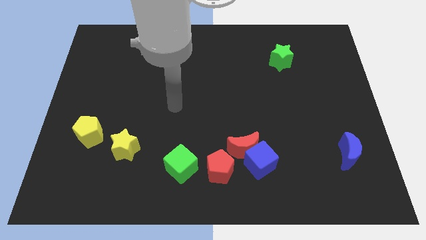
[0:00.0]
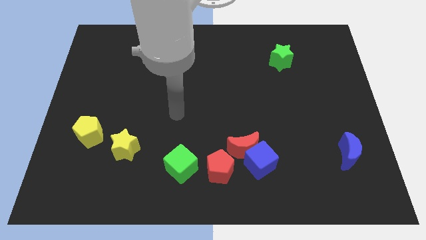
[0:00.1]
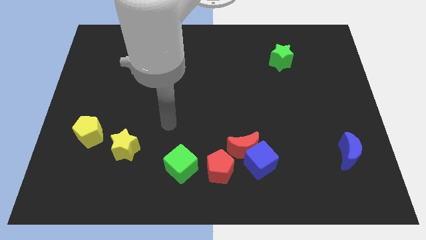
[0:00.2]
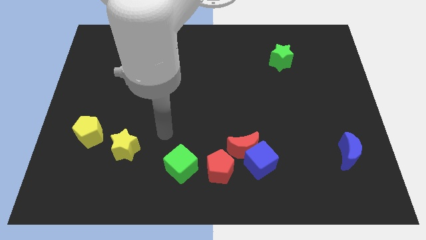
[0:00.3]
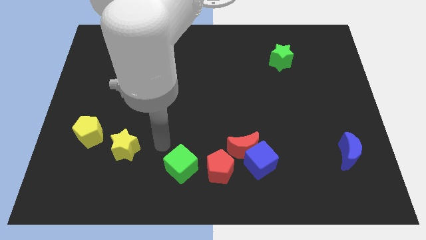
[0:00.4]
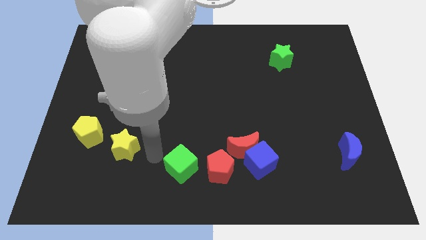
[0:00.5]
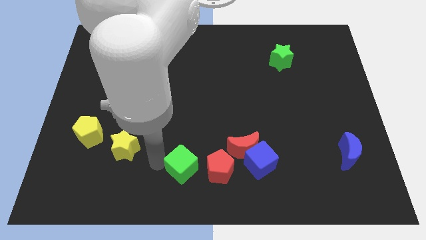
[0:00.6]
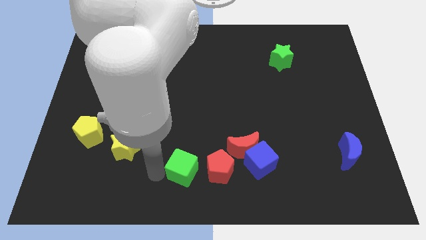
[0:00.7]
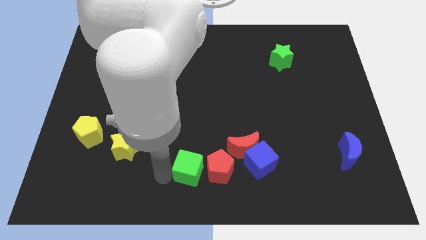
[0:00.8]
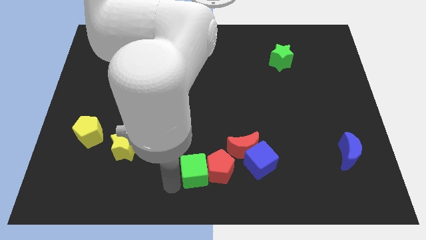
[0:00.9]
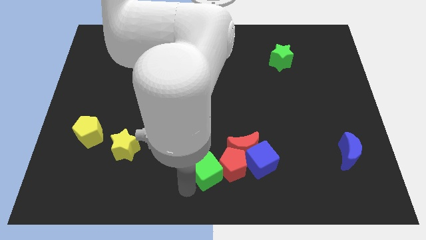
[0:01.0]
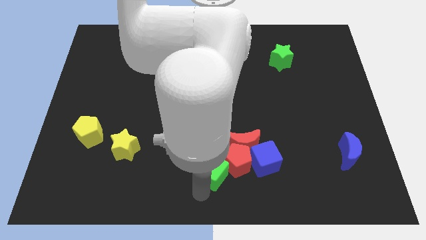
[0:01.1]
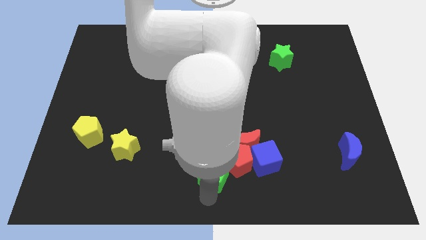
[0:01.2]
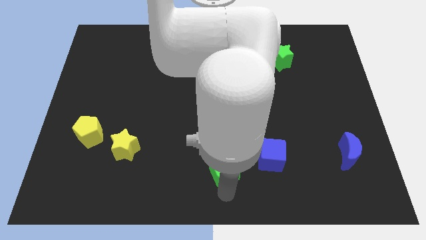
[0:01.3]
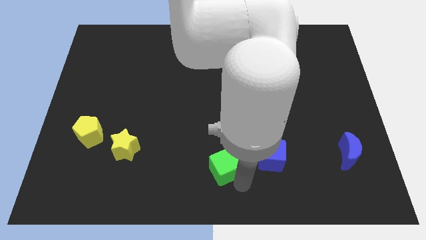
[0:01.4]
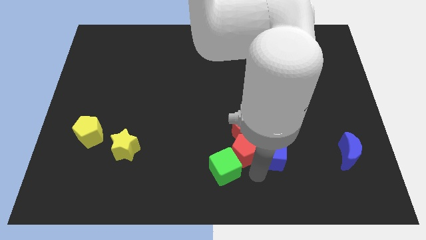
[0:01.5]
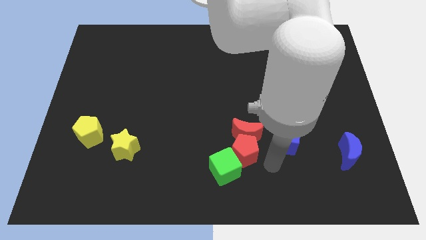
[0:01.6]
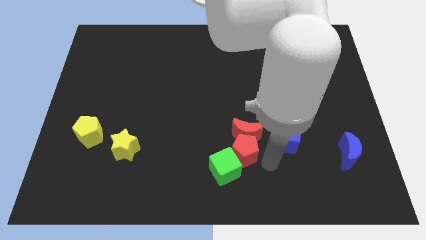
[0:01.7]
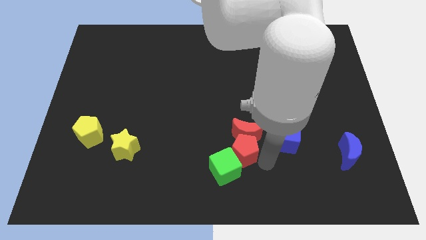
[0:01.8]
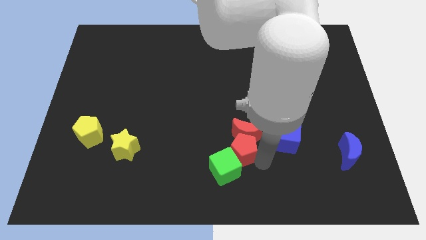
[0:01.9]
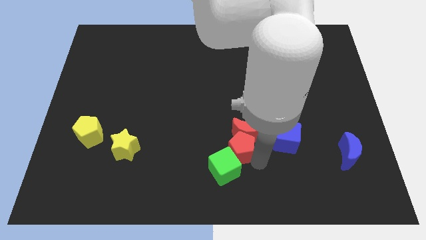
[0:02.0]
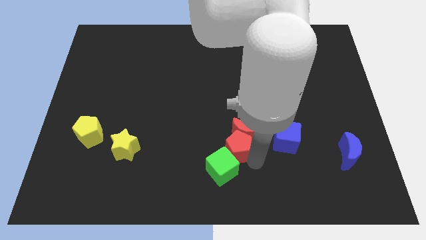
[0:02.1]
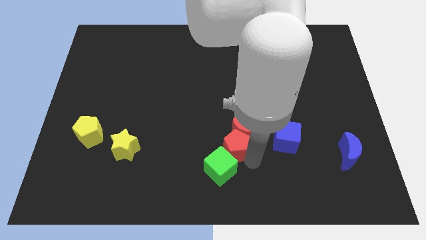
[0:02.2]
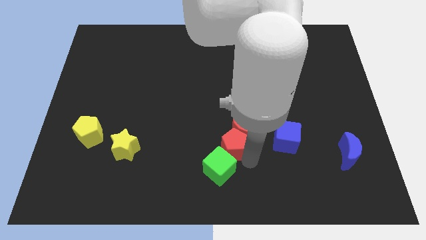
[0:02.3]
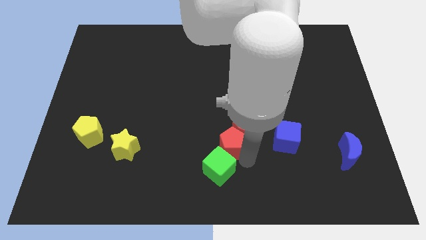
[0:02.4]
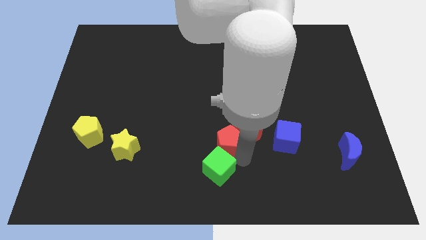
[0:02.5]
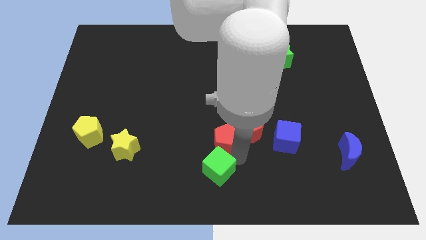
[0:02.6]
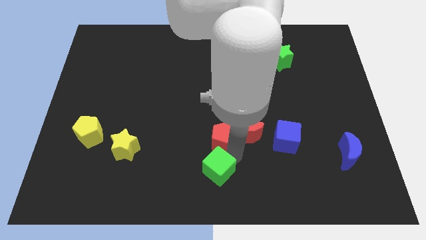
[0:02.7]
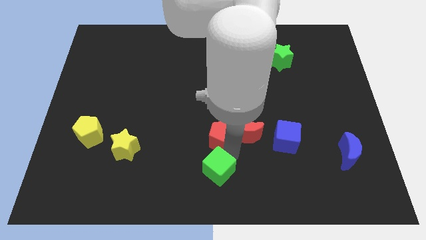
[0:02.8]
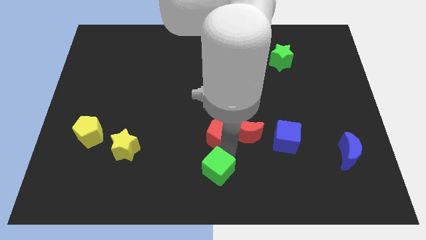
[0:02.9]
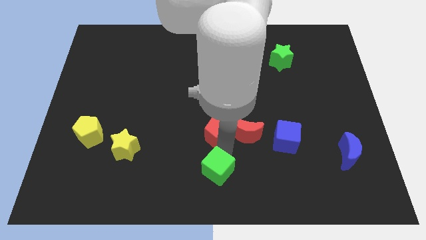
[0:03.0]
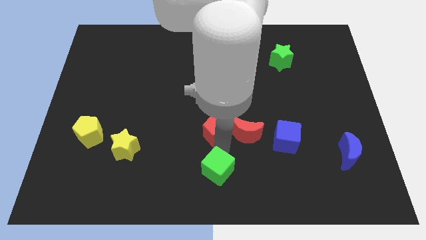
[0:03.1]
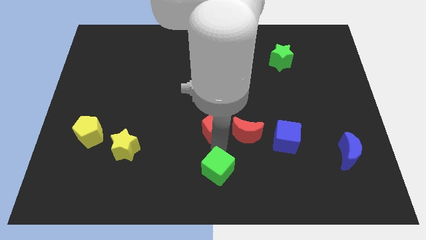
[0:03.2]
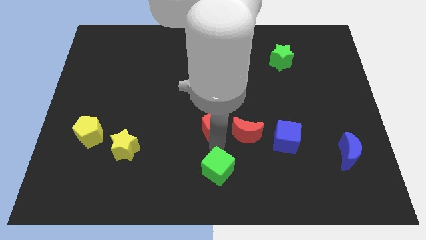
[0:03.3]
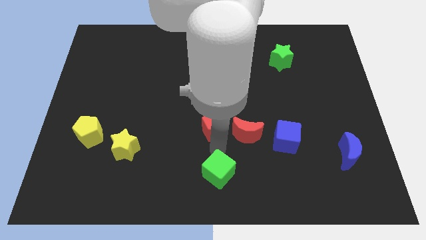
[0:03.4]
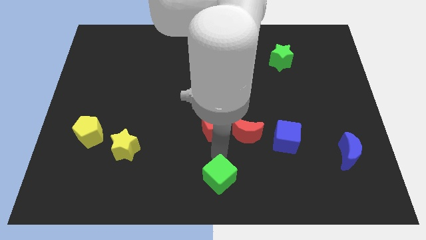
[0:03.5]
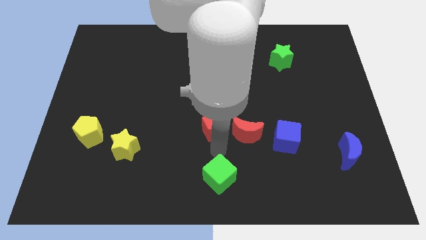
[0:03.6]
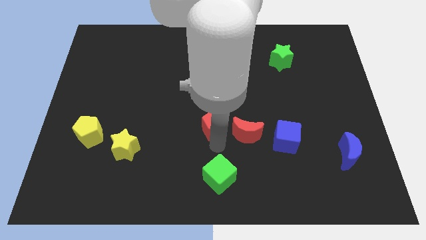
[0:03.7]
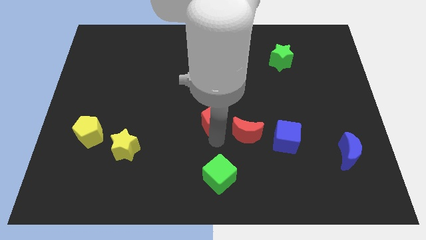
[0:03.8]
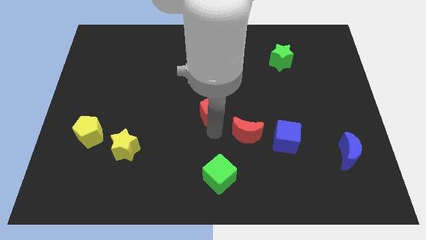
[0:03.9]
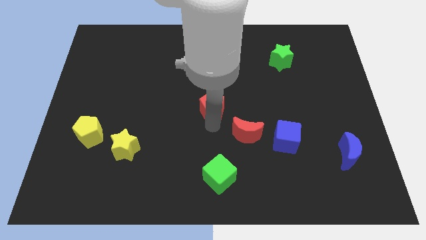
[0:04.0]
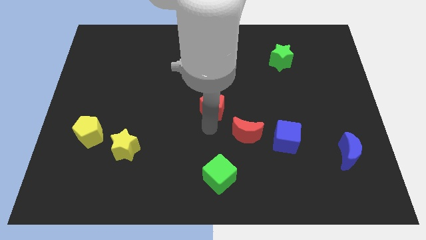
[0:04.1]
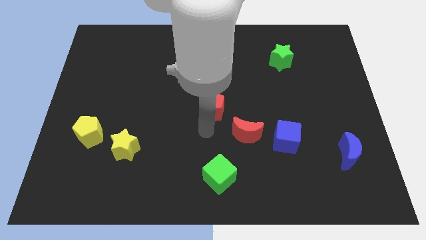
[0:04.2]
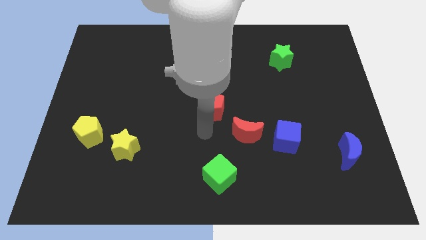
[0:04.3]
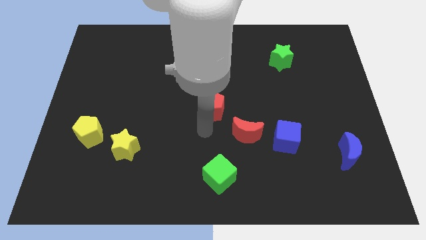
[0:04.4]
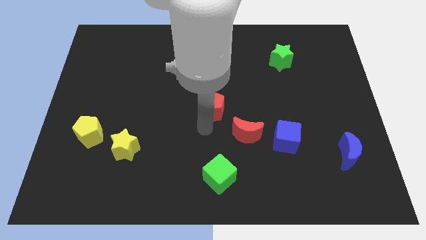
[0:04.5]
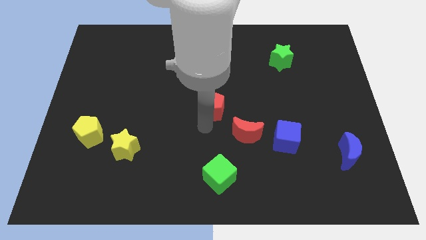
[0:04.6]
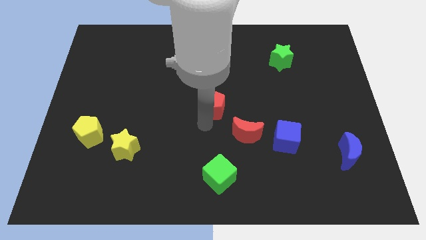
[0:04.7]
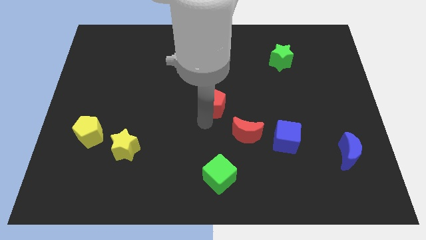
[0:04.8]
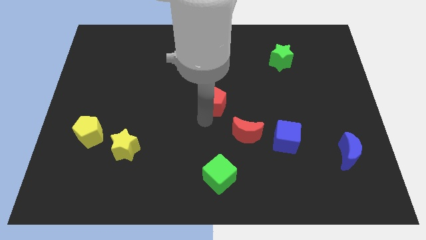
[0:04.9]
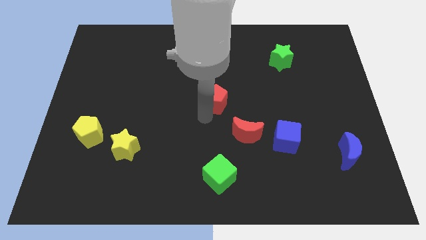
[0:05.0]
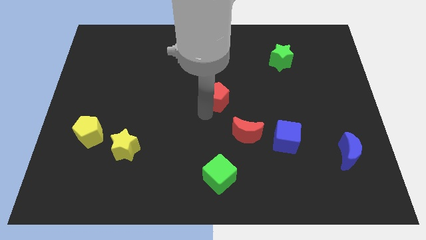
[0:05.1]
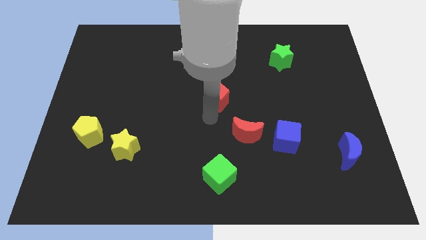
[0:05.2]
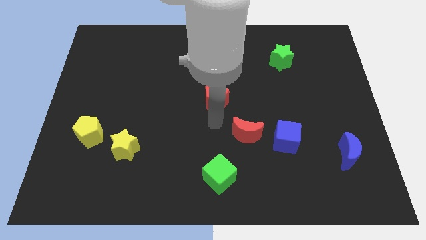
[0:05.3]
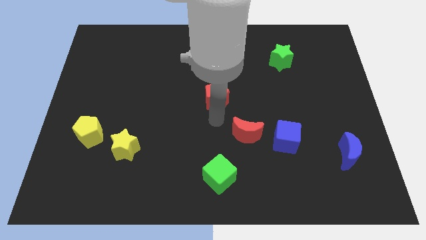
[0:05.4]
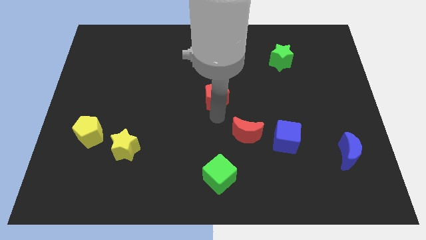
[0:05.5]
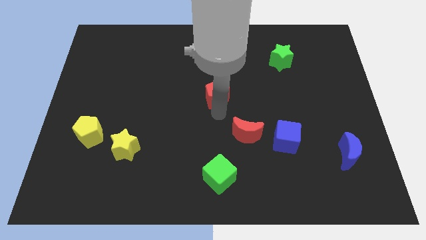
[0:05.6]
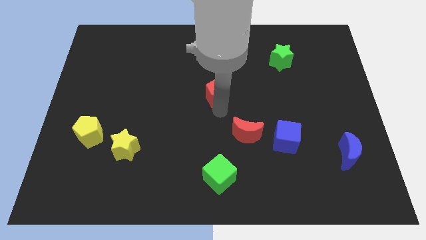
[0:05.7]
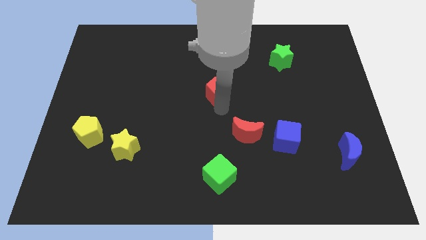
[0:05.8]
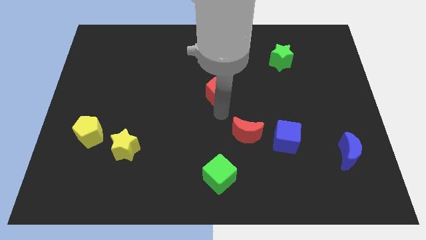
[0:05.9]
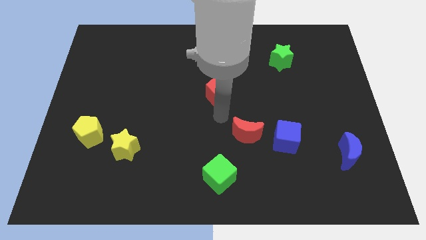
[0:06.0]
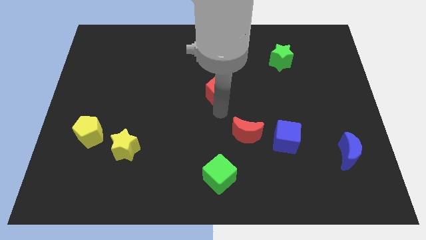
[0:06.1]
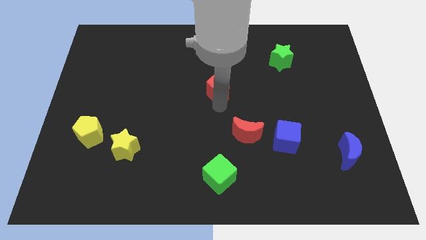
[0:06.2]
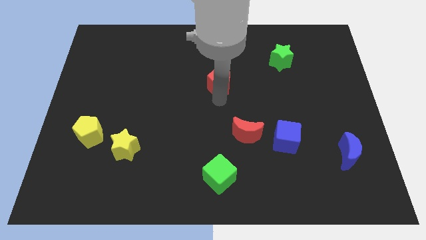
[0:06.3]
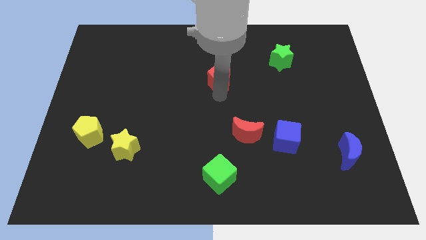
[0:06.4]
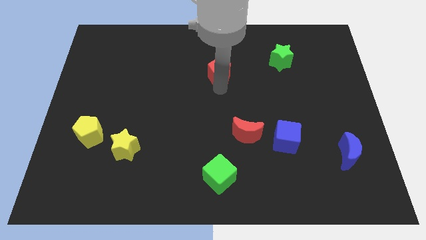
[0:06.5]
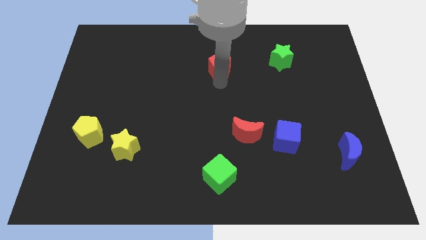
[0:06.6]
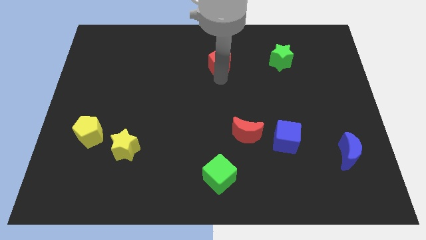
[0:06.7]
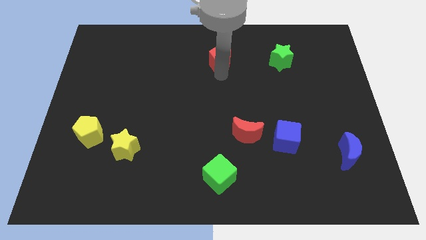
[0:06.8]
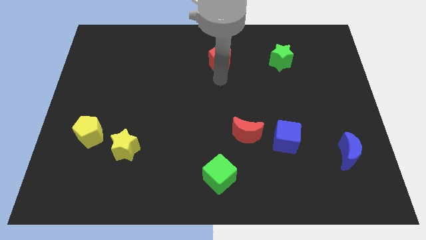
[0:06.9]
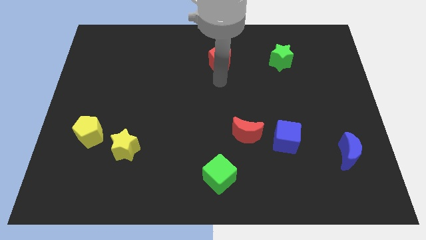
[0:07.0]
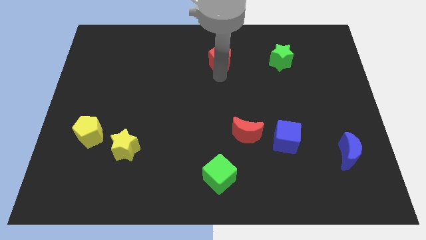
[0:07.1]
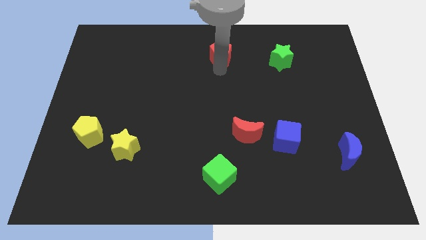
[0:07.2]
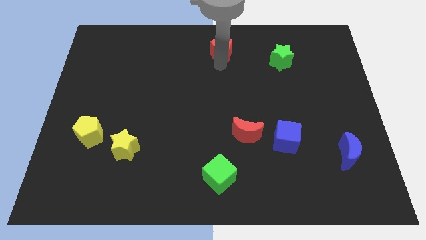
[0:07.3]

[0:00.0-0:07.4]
slide the red pentagon to the top side
